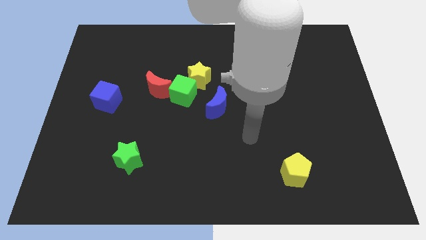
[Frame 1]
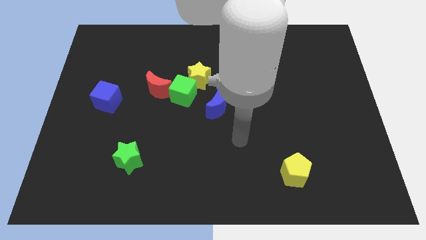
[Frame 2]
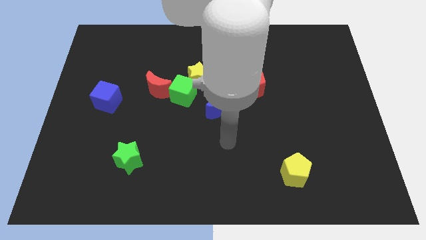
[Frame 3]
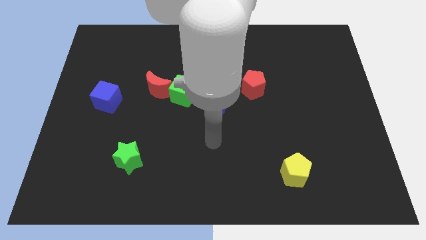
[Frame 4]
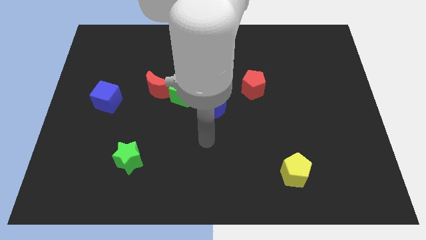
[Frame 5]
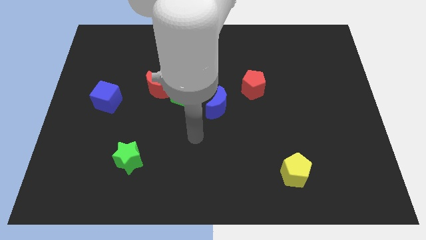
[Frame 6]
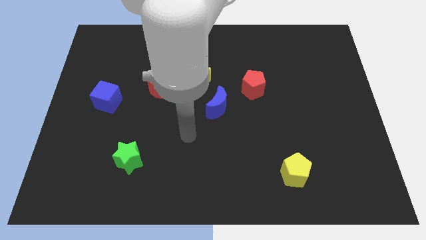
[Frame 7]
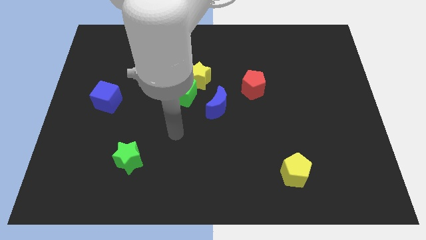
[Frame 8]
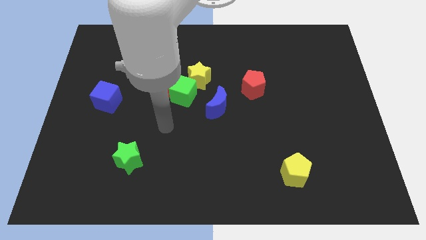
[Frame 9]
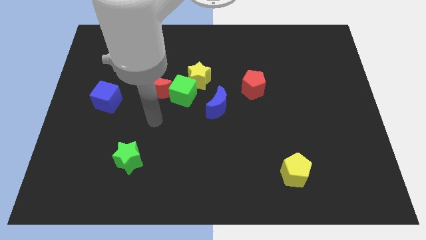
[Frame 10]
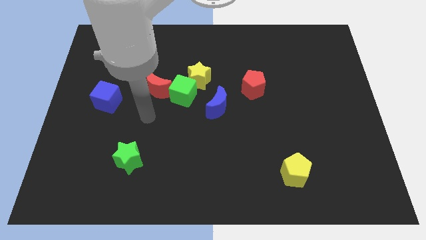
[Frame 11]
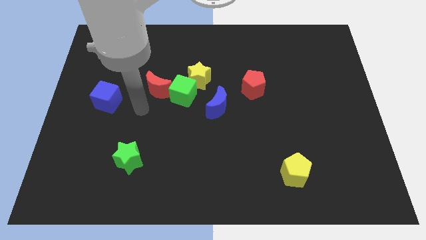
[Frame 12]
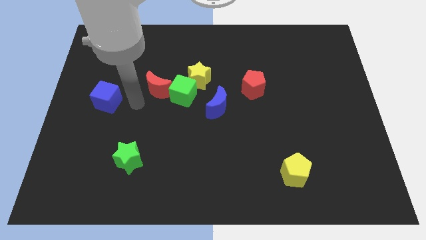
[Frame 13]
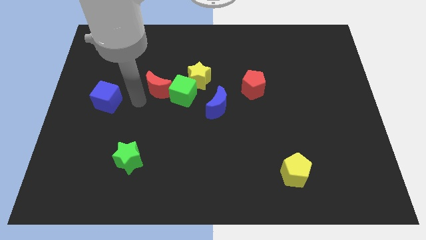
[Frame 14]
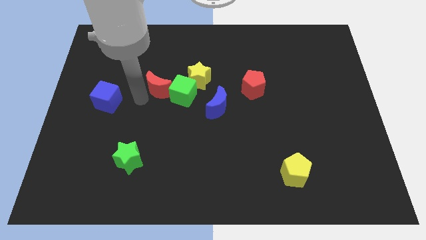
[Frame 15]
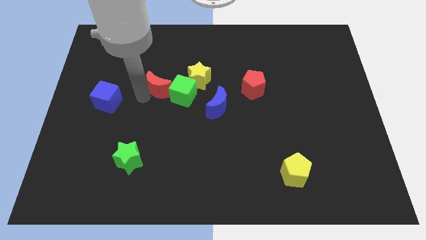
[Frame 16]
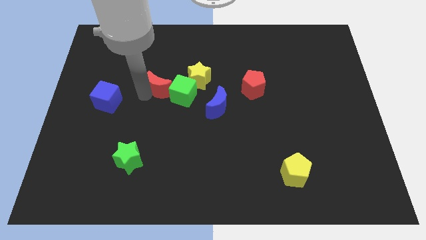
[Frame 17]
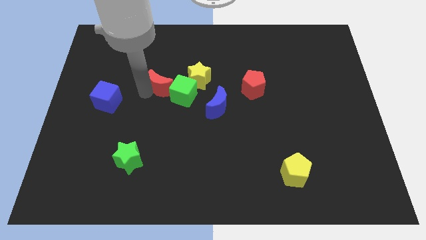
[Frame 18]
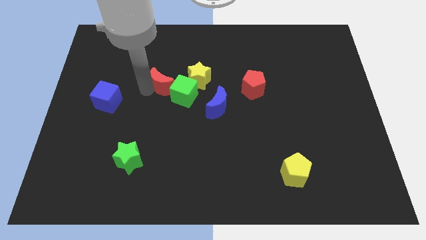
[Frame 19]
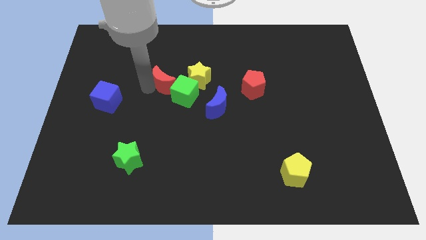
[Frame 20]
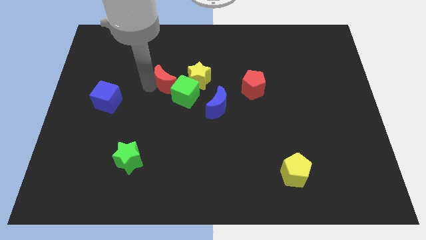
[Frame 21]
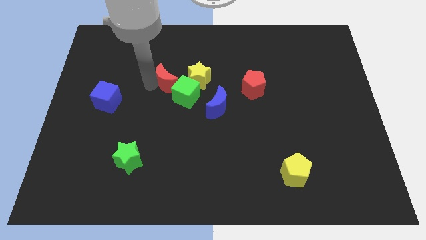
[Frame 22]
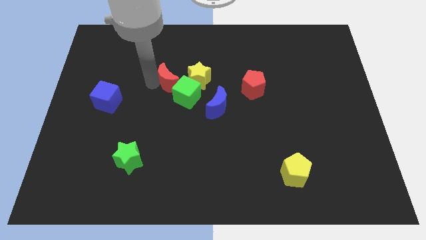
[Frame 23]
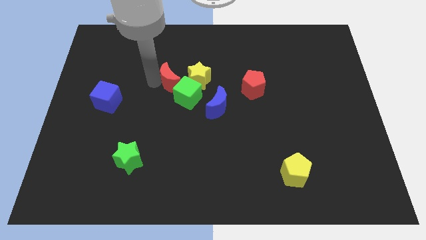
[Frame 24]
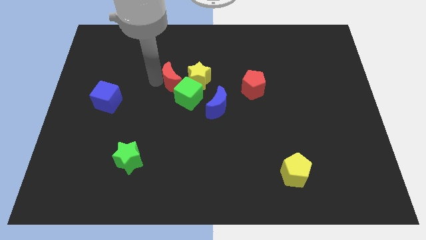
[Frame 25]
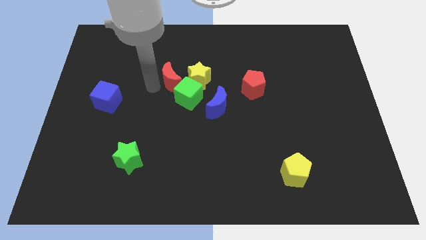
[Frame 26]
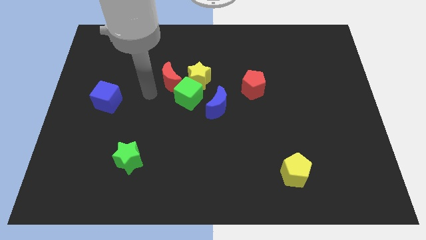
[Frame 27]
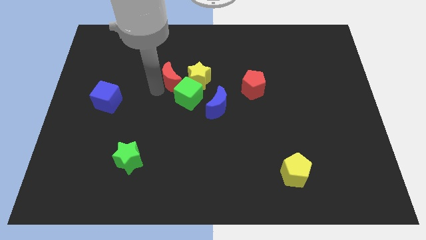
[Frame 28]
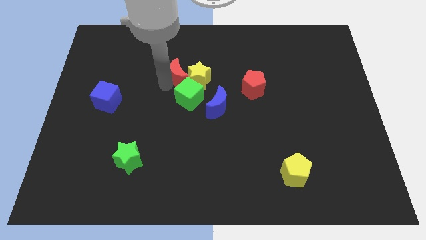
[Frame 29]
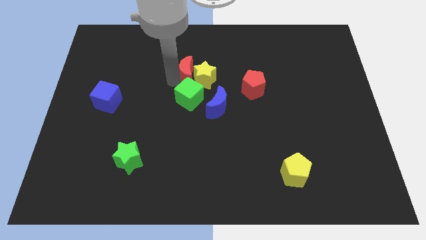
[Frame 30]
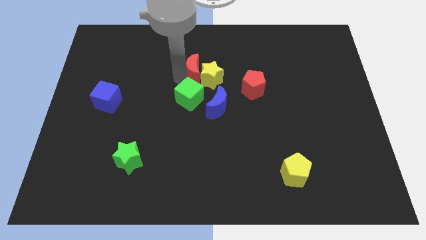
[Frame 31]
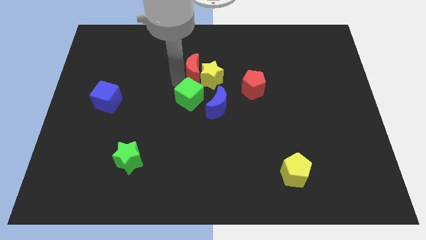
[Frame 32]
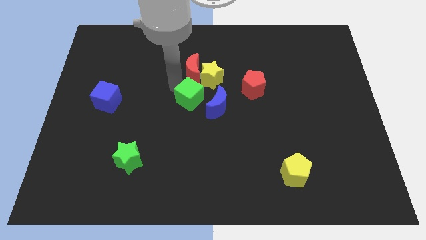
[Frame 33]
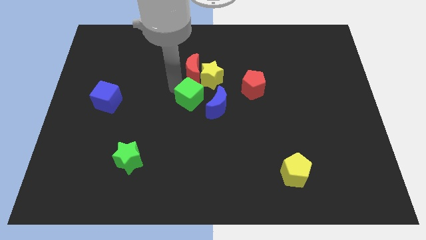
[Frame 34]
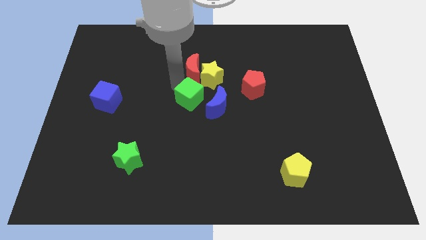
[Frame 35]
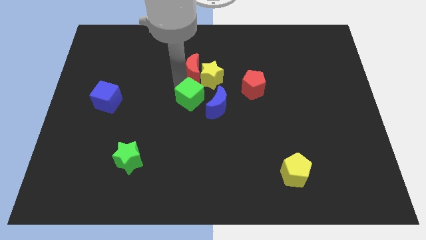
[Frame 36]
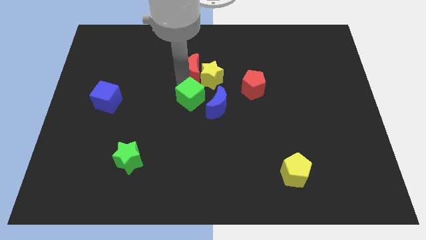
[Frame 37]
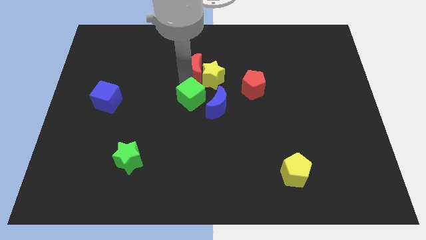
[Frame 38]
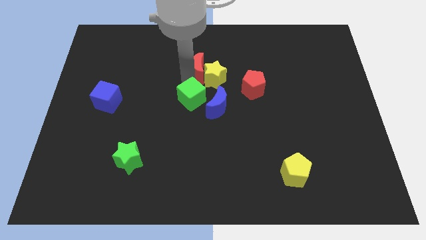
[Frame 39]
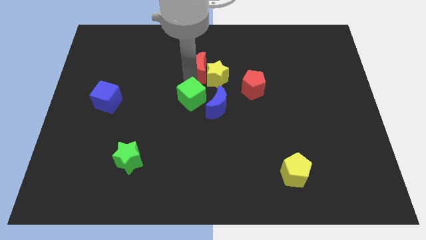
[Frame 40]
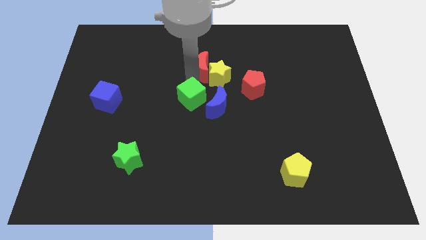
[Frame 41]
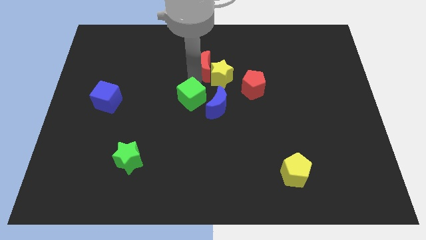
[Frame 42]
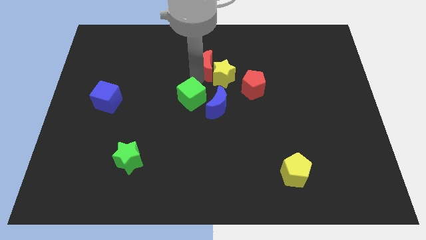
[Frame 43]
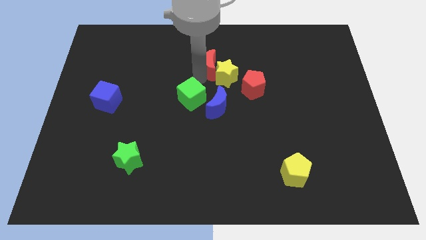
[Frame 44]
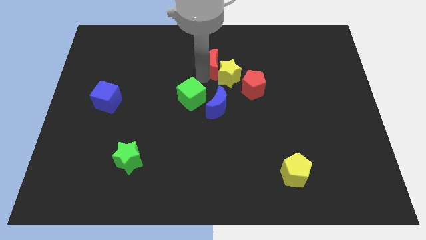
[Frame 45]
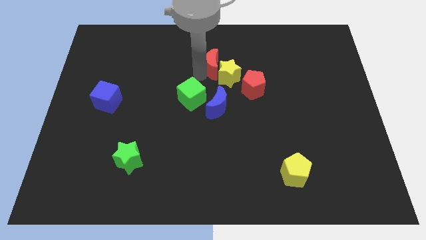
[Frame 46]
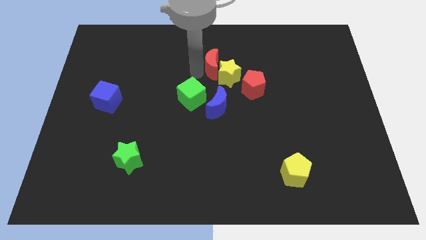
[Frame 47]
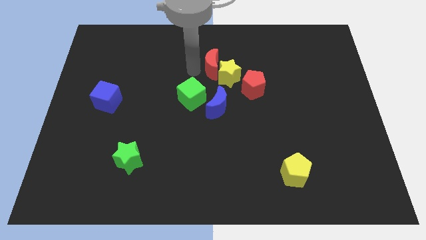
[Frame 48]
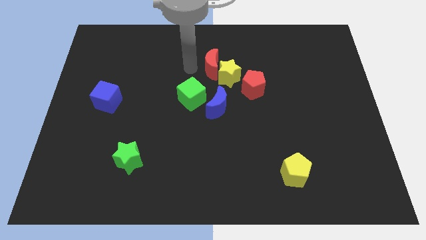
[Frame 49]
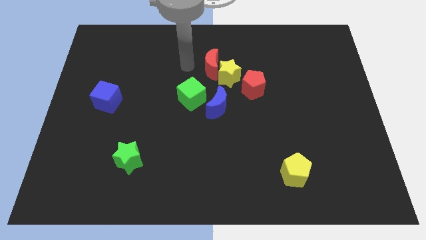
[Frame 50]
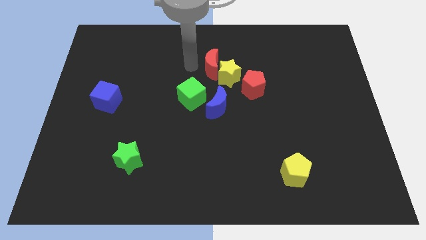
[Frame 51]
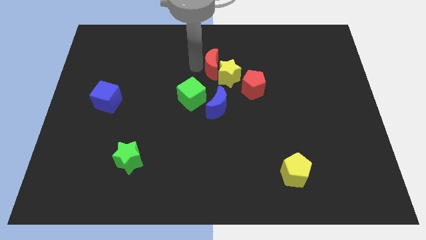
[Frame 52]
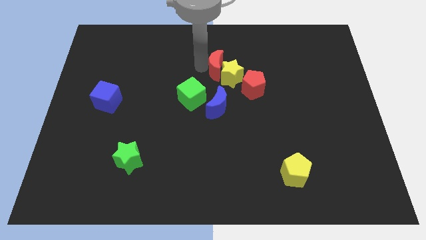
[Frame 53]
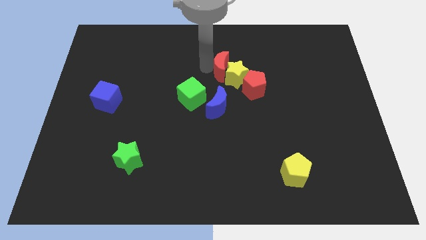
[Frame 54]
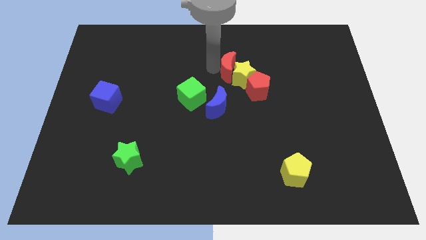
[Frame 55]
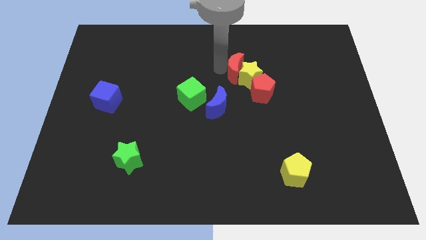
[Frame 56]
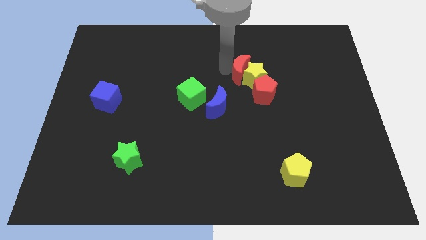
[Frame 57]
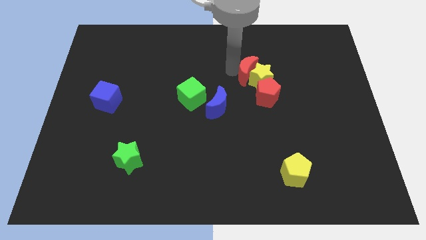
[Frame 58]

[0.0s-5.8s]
move the red moon right

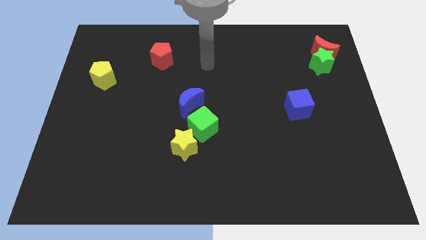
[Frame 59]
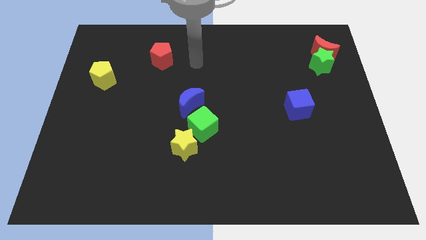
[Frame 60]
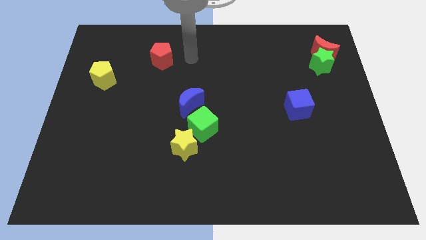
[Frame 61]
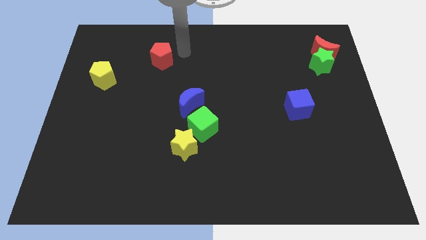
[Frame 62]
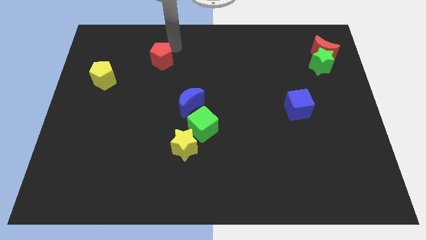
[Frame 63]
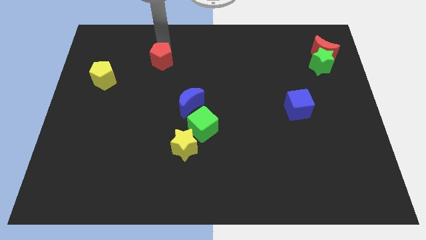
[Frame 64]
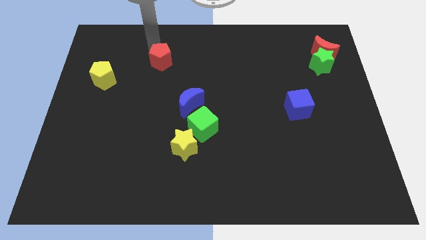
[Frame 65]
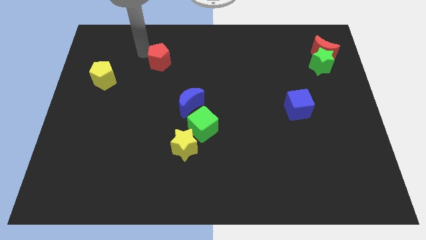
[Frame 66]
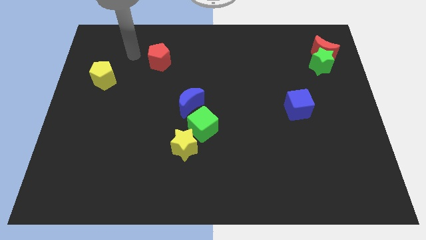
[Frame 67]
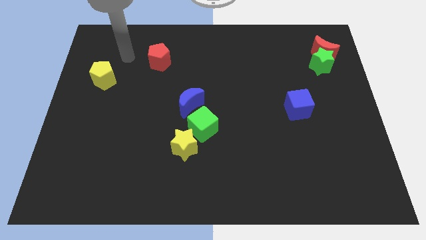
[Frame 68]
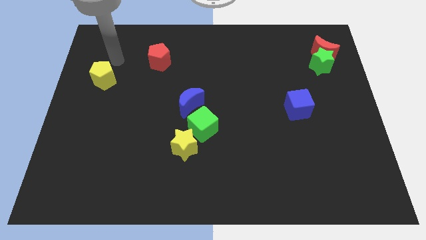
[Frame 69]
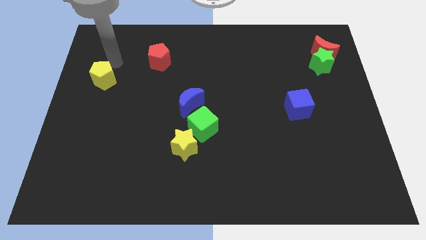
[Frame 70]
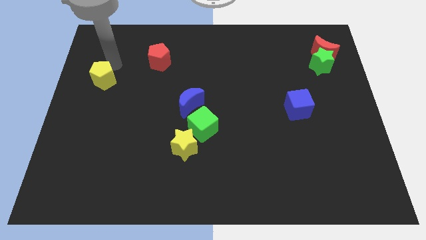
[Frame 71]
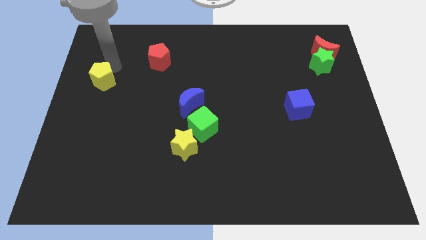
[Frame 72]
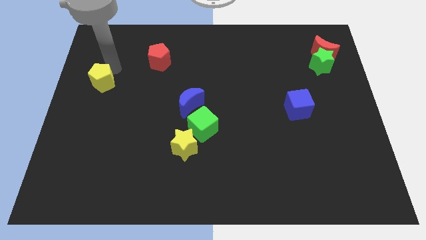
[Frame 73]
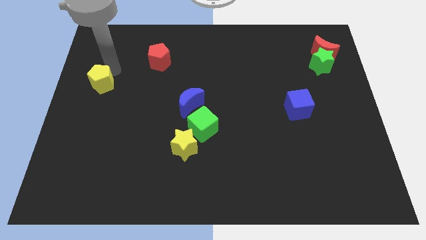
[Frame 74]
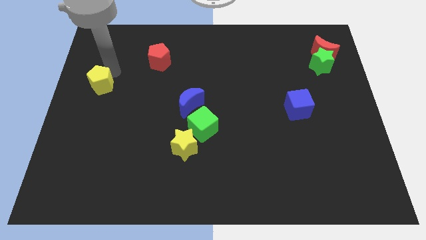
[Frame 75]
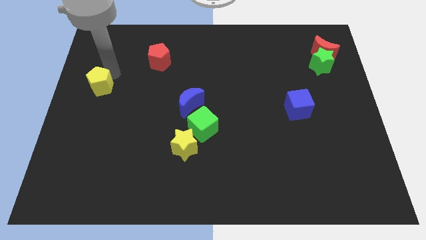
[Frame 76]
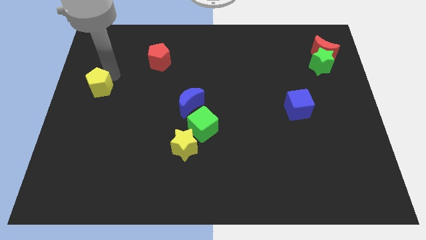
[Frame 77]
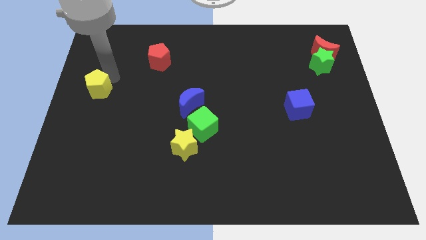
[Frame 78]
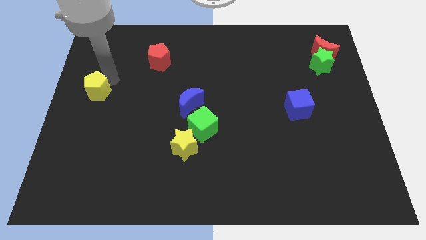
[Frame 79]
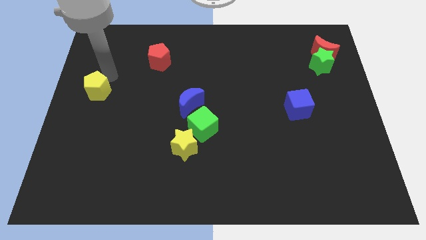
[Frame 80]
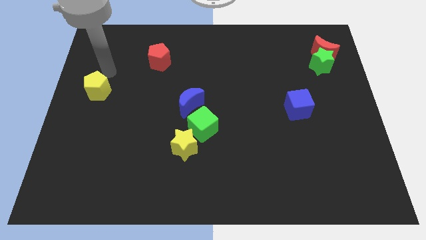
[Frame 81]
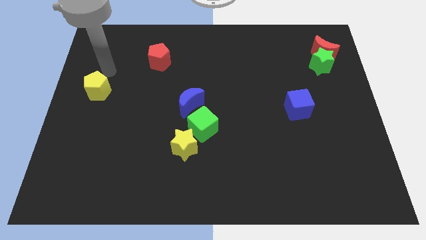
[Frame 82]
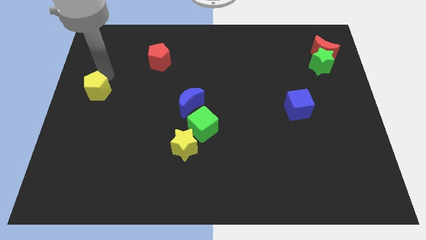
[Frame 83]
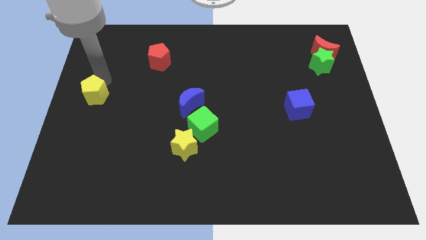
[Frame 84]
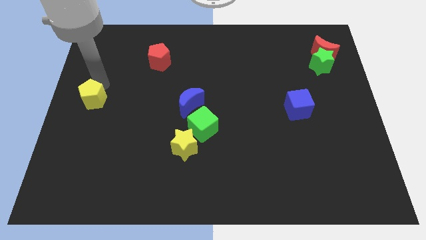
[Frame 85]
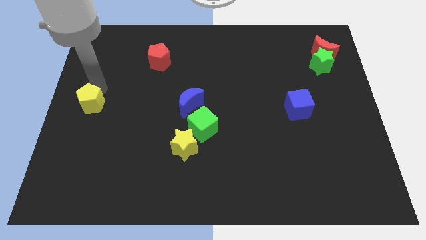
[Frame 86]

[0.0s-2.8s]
push the yellow pentagon somewhat downwards
